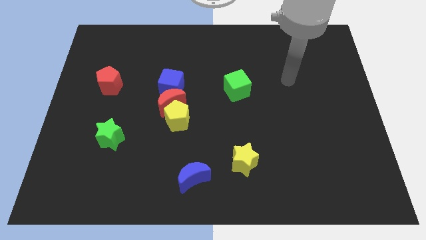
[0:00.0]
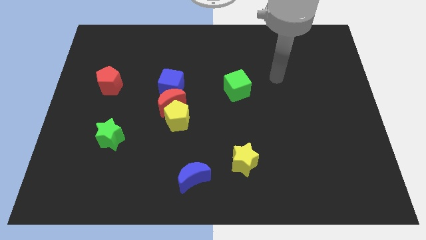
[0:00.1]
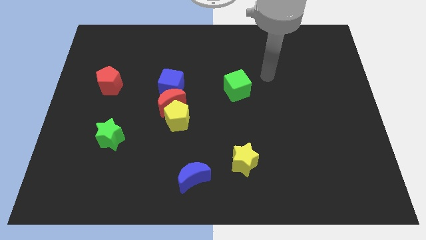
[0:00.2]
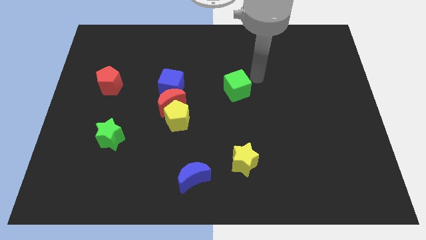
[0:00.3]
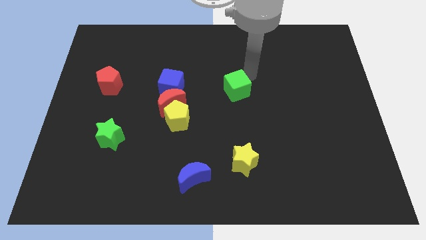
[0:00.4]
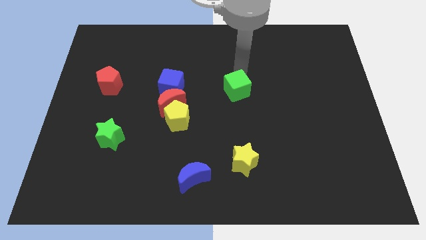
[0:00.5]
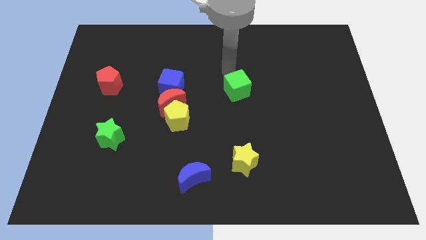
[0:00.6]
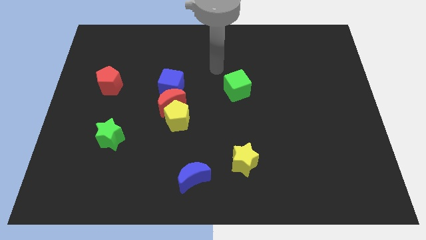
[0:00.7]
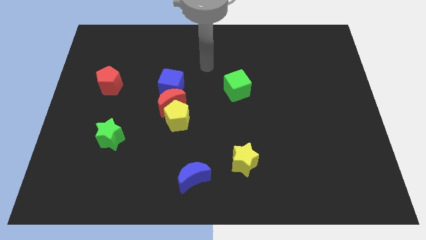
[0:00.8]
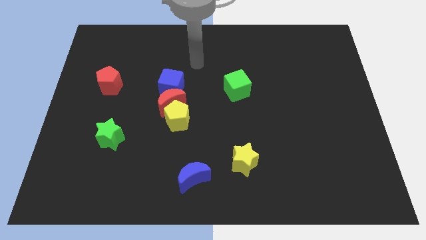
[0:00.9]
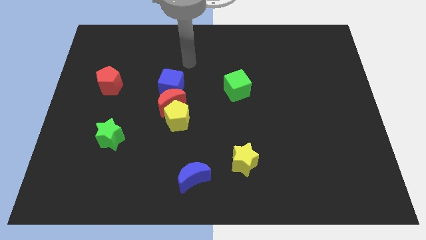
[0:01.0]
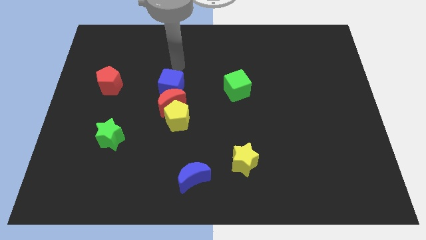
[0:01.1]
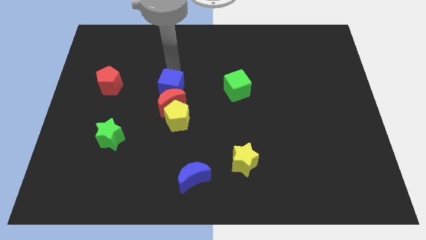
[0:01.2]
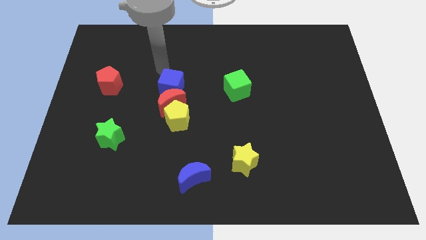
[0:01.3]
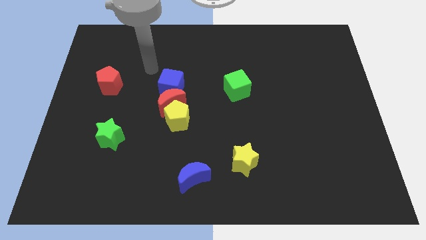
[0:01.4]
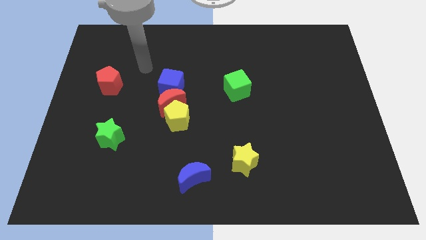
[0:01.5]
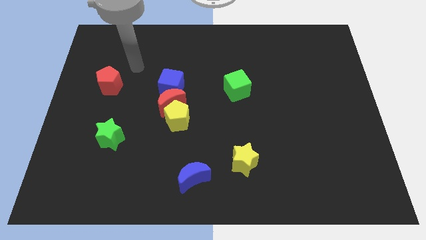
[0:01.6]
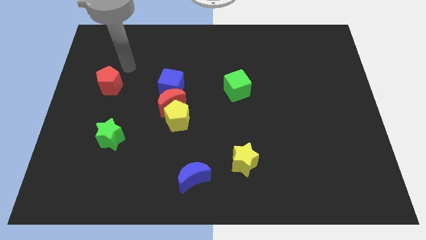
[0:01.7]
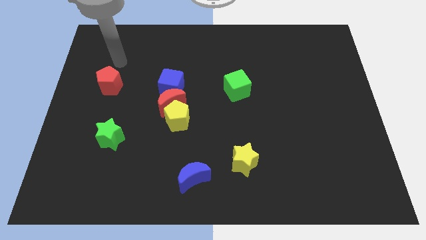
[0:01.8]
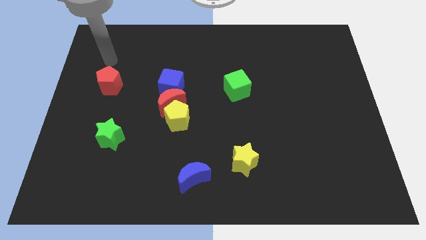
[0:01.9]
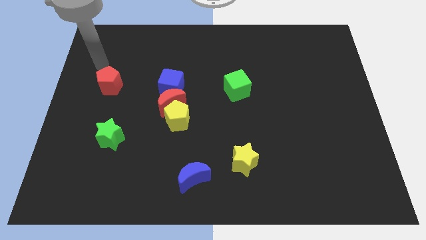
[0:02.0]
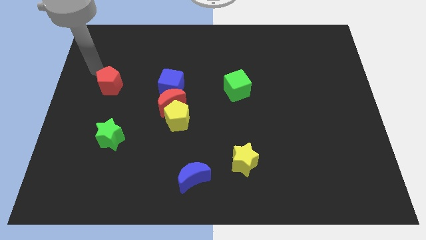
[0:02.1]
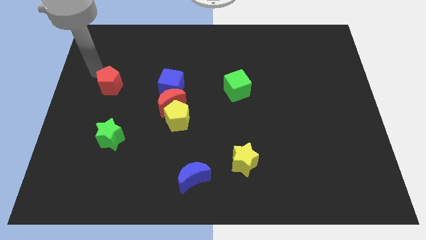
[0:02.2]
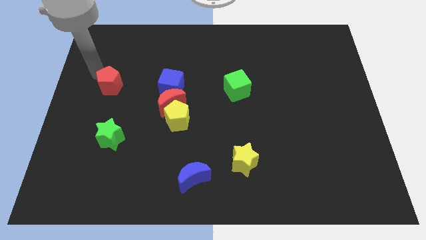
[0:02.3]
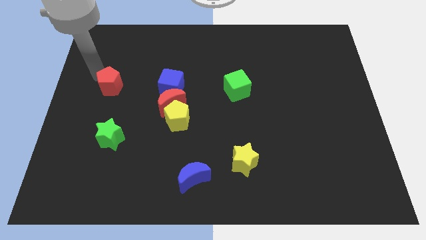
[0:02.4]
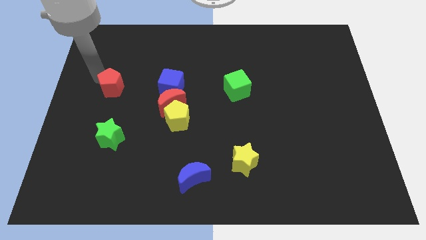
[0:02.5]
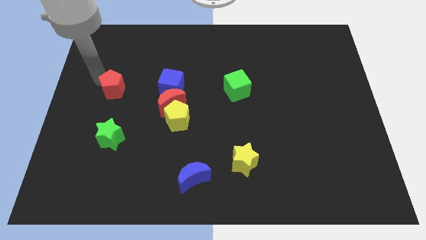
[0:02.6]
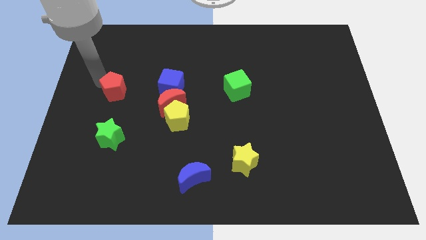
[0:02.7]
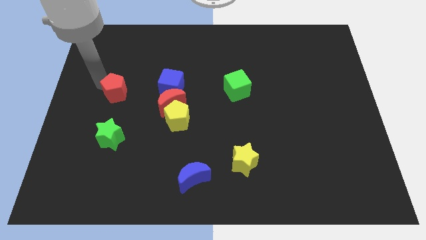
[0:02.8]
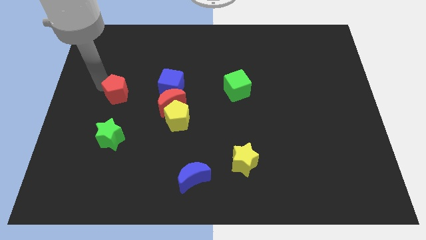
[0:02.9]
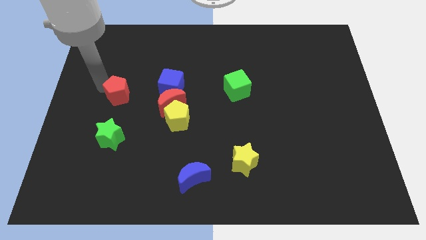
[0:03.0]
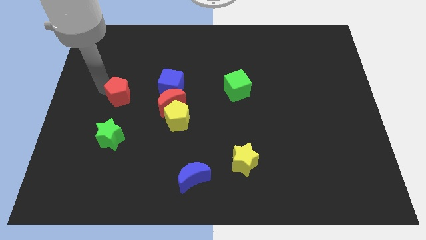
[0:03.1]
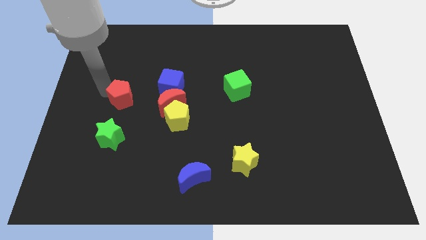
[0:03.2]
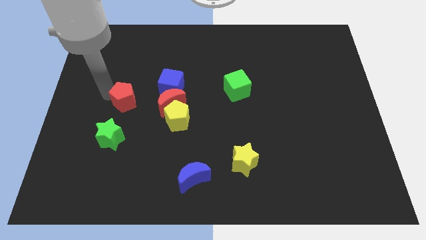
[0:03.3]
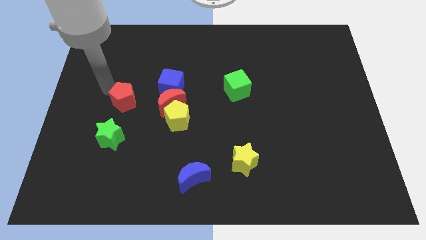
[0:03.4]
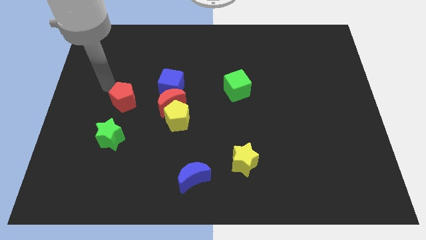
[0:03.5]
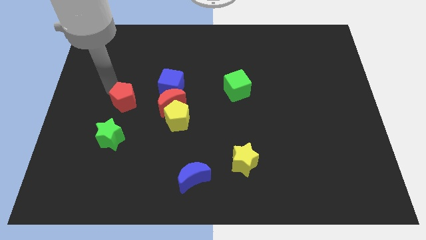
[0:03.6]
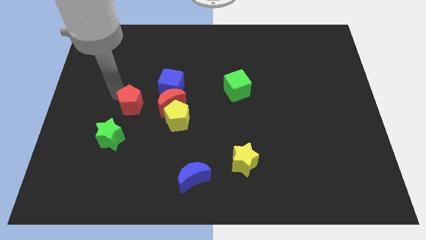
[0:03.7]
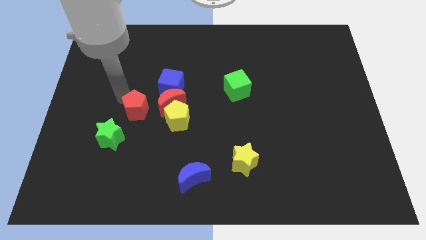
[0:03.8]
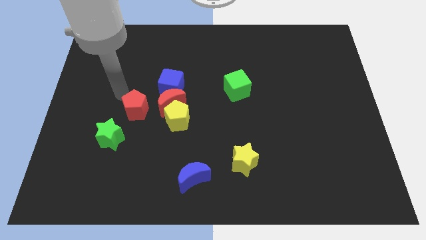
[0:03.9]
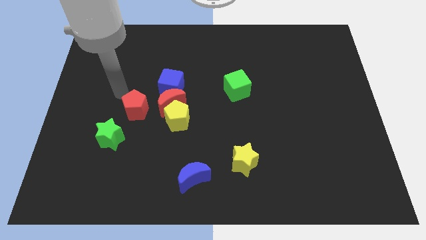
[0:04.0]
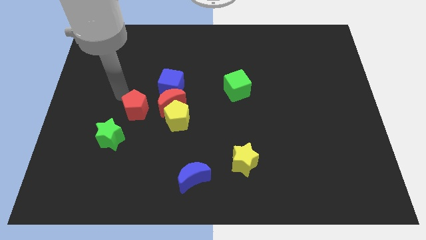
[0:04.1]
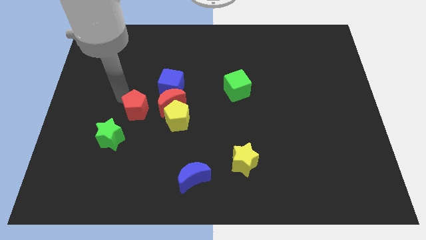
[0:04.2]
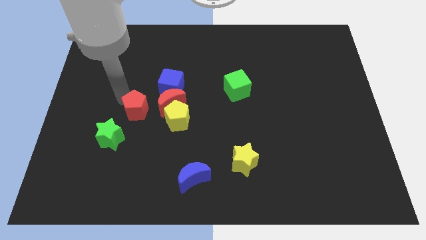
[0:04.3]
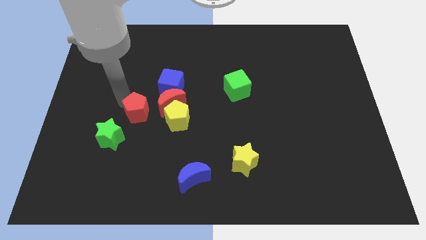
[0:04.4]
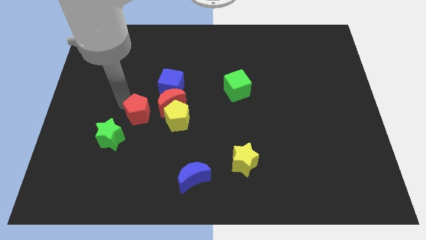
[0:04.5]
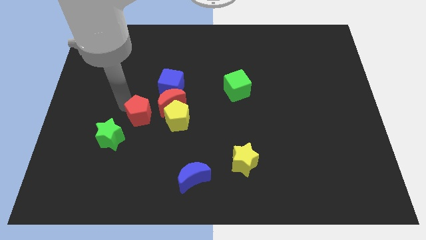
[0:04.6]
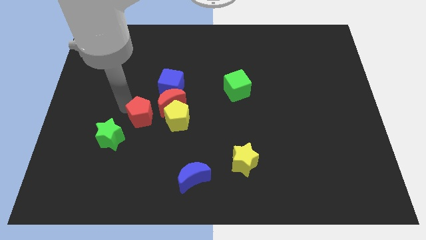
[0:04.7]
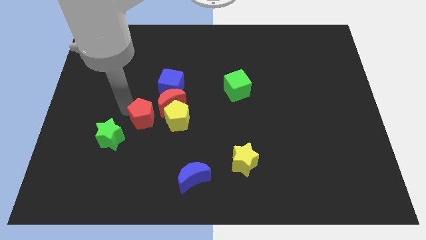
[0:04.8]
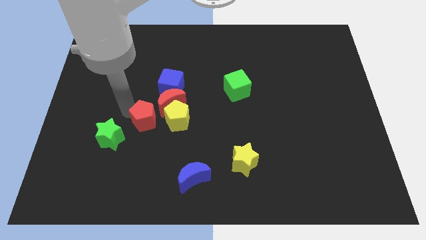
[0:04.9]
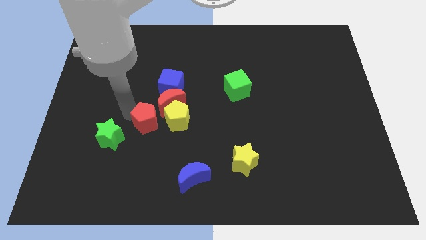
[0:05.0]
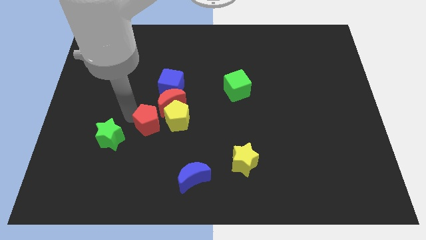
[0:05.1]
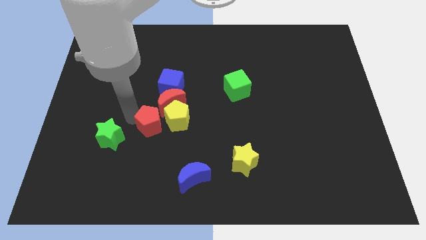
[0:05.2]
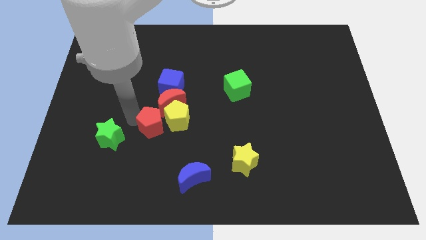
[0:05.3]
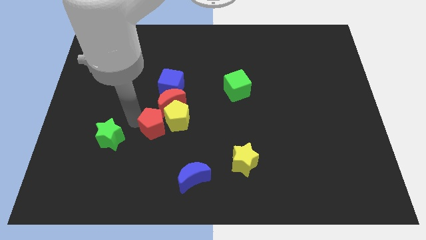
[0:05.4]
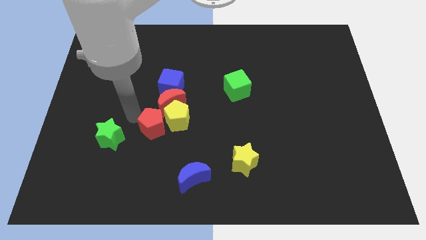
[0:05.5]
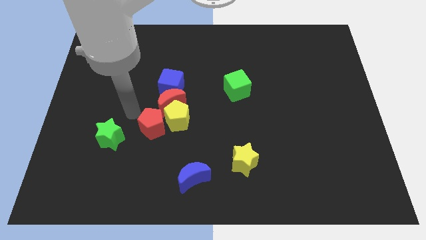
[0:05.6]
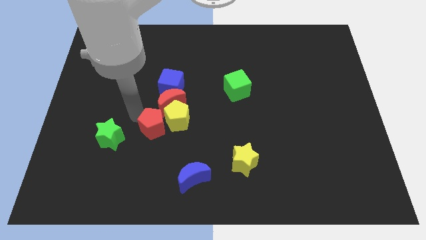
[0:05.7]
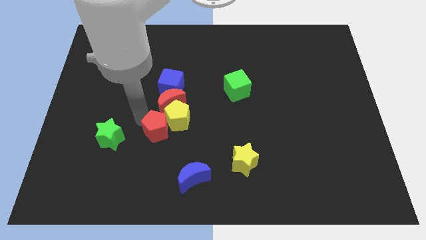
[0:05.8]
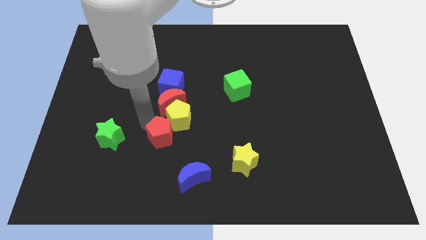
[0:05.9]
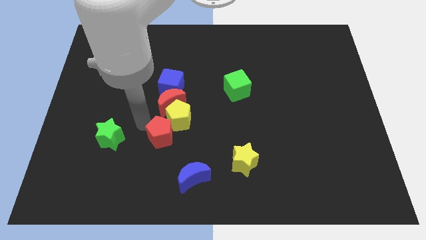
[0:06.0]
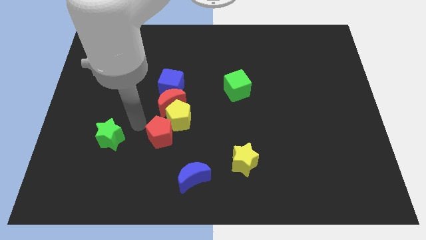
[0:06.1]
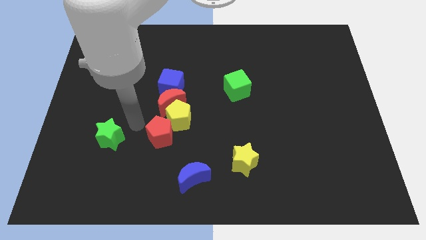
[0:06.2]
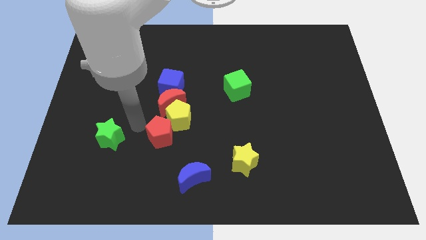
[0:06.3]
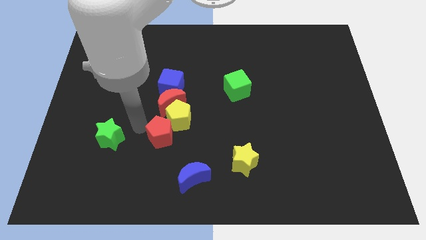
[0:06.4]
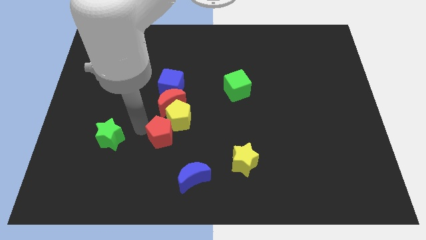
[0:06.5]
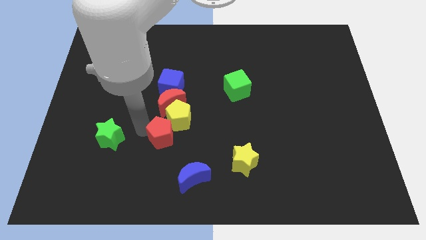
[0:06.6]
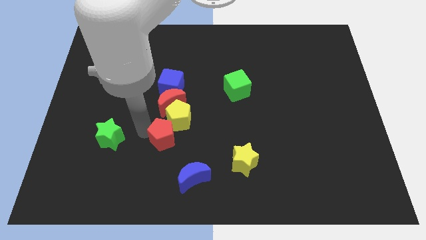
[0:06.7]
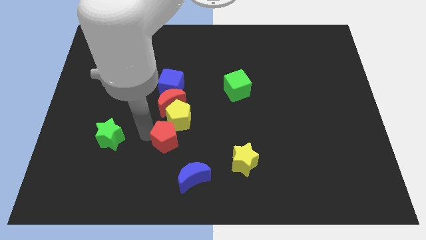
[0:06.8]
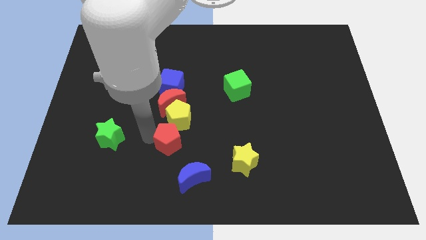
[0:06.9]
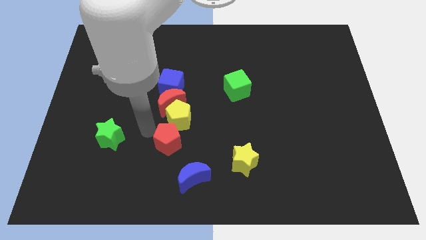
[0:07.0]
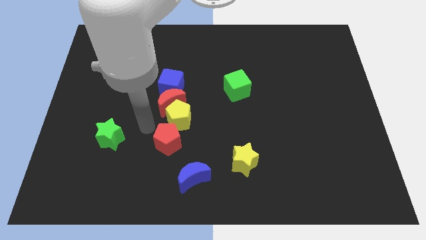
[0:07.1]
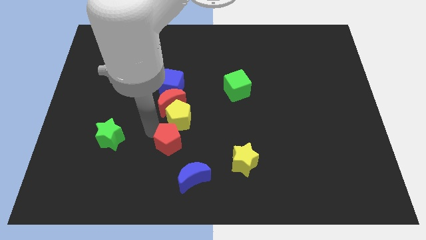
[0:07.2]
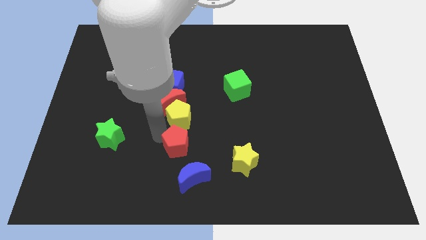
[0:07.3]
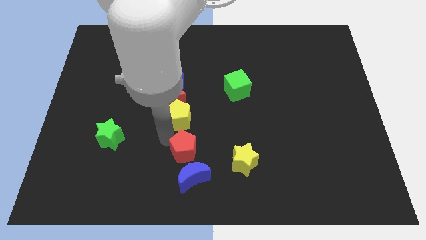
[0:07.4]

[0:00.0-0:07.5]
slide the red pentagon to the left of the yellow star
